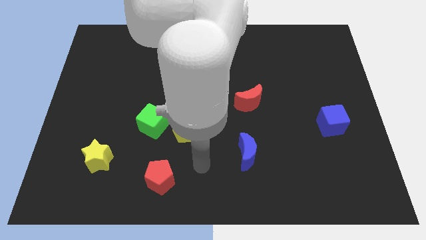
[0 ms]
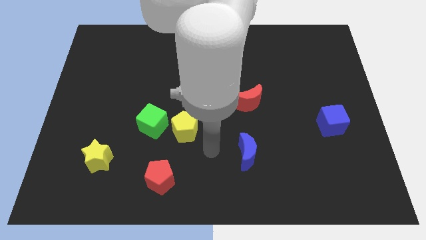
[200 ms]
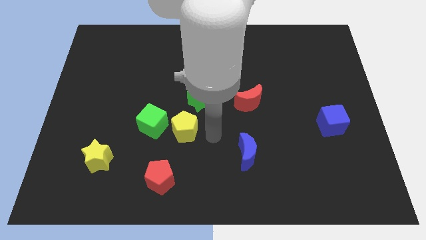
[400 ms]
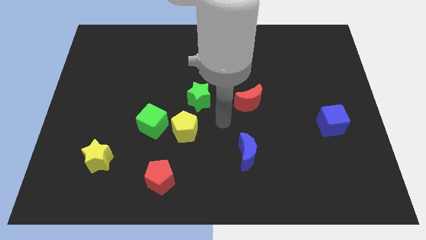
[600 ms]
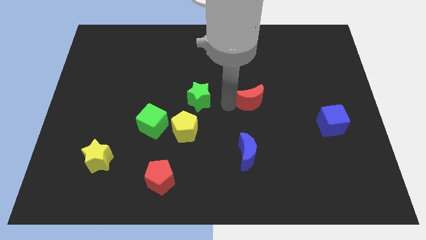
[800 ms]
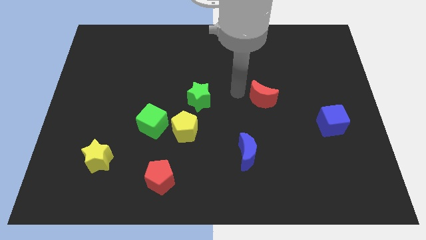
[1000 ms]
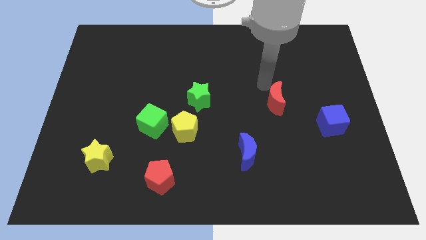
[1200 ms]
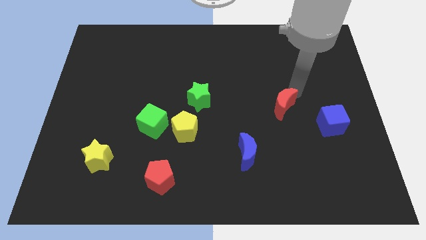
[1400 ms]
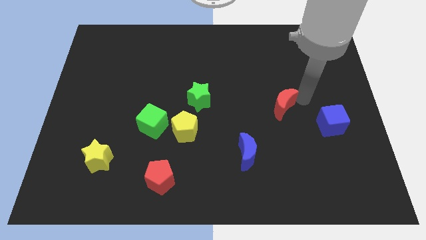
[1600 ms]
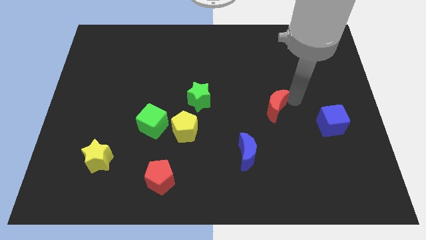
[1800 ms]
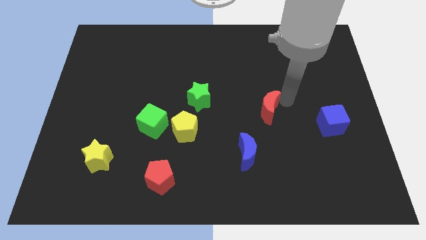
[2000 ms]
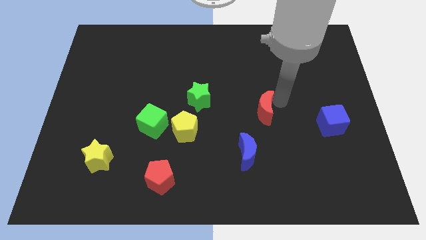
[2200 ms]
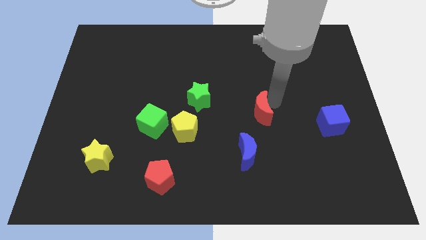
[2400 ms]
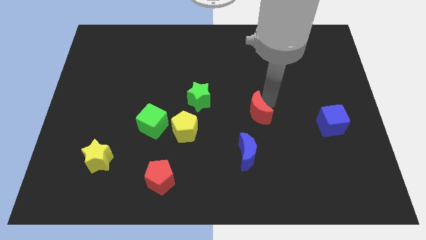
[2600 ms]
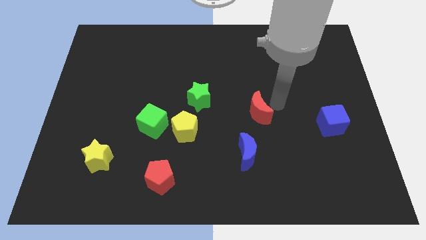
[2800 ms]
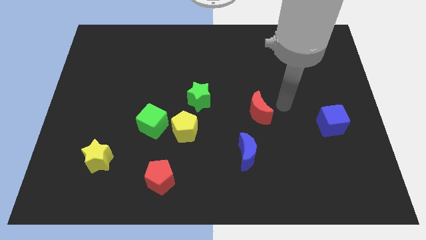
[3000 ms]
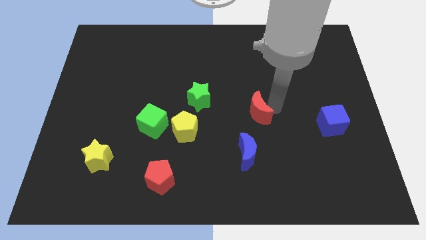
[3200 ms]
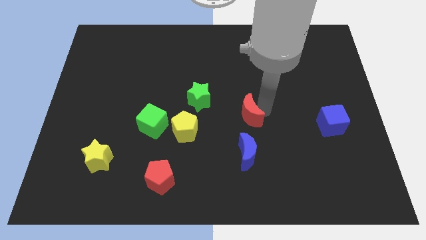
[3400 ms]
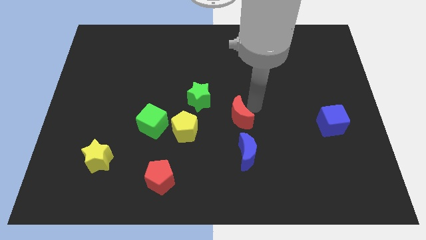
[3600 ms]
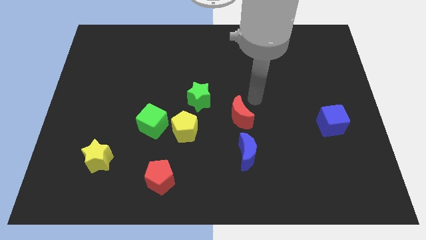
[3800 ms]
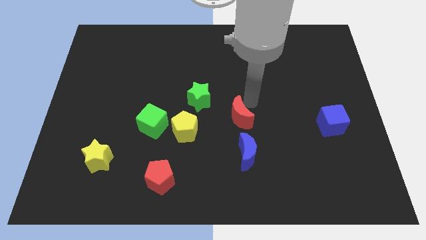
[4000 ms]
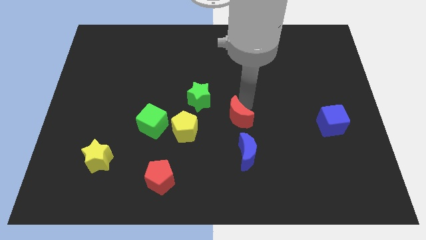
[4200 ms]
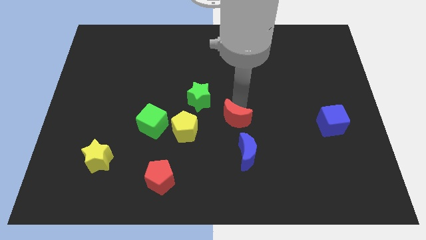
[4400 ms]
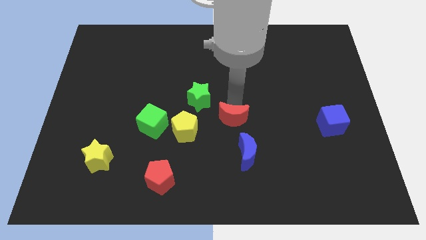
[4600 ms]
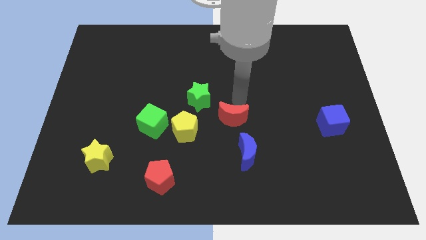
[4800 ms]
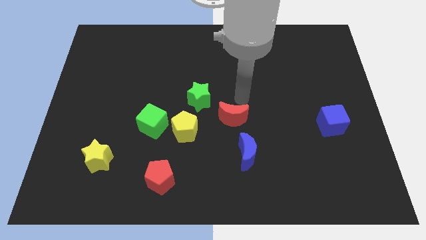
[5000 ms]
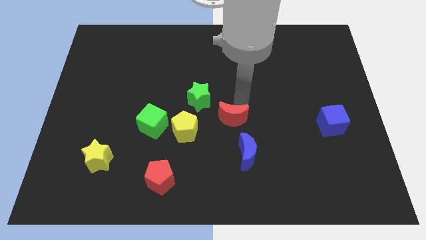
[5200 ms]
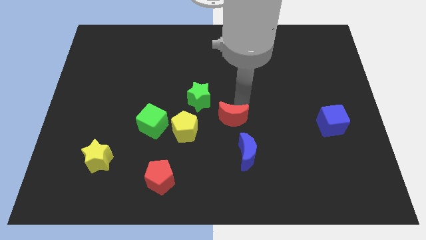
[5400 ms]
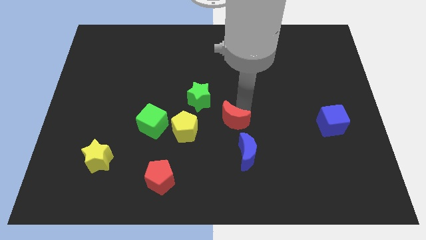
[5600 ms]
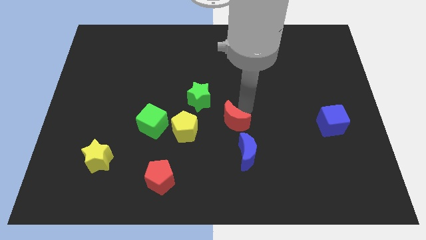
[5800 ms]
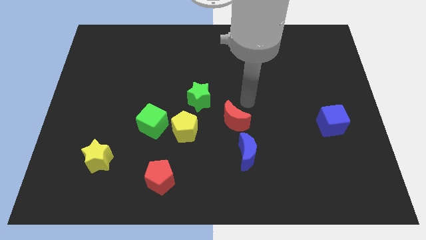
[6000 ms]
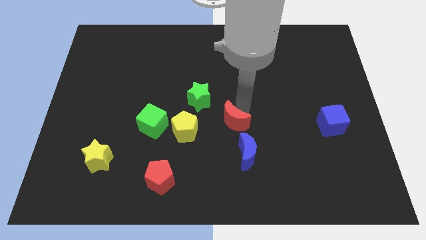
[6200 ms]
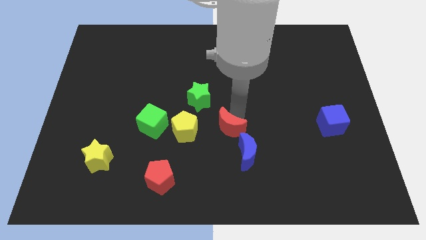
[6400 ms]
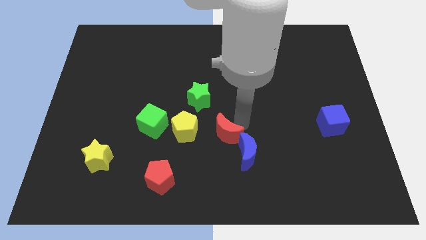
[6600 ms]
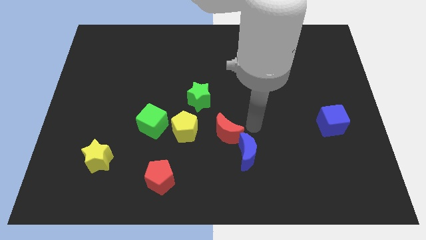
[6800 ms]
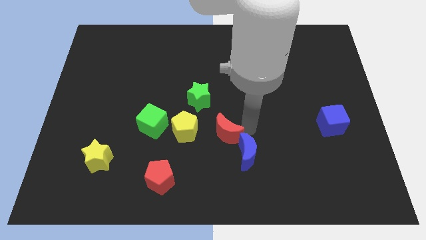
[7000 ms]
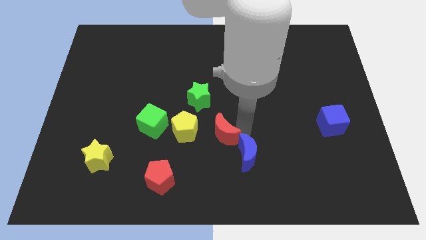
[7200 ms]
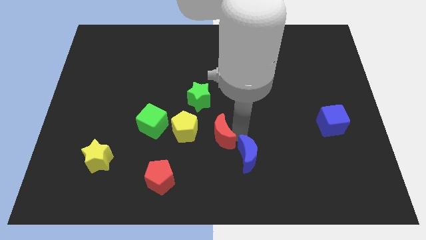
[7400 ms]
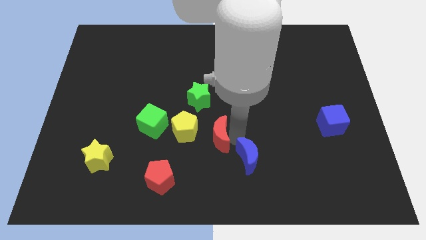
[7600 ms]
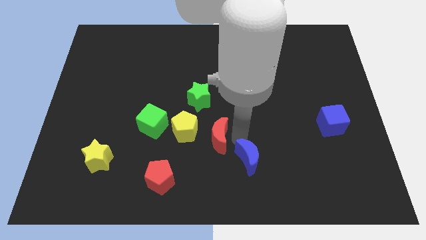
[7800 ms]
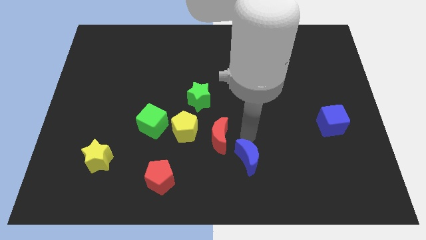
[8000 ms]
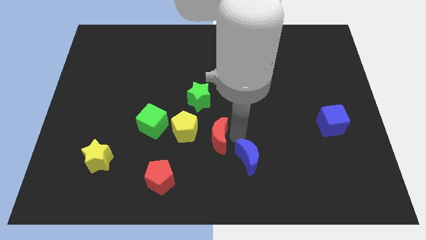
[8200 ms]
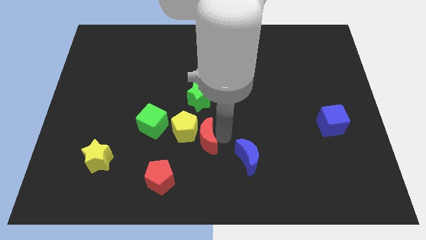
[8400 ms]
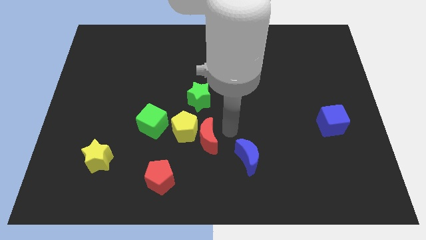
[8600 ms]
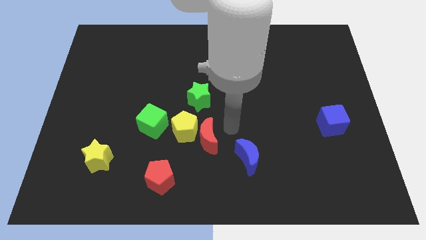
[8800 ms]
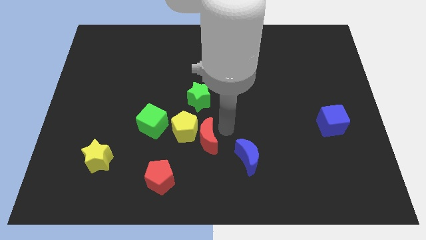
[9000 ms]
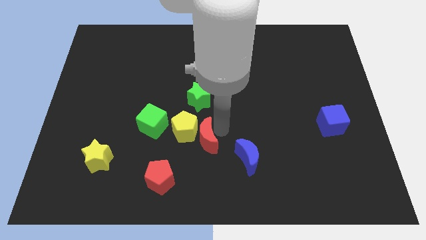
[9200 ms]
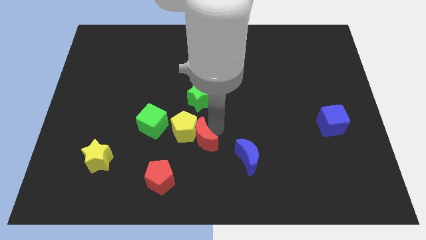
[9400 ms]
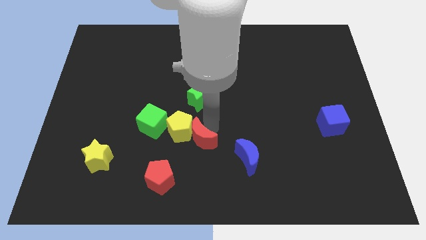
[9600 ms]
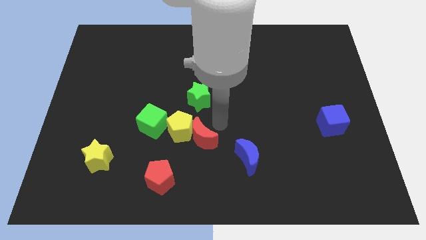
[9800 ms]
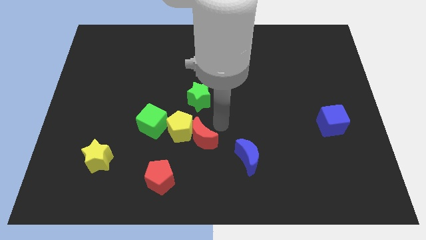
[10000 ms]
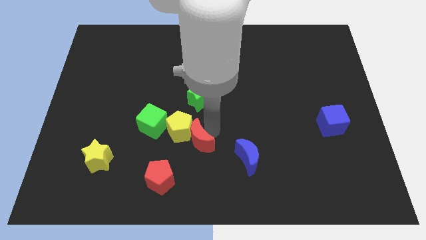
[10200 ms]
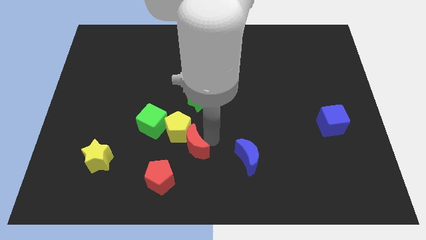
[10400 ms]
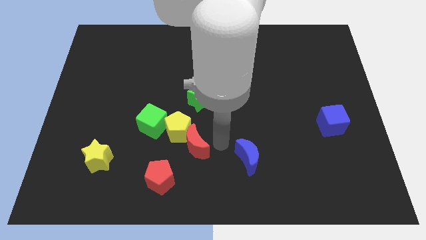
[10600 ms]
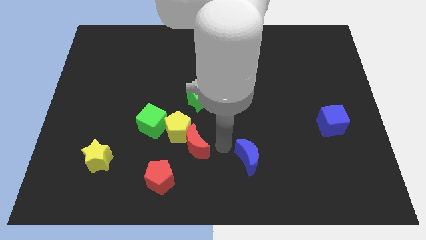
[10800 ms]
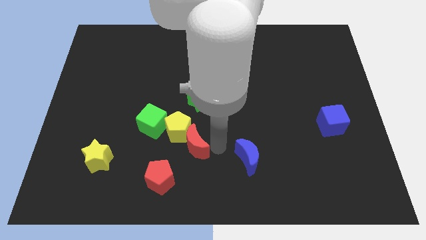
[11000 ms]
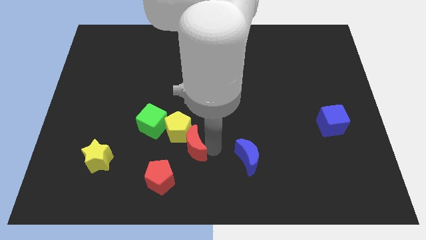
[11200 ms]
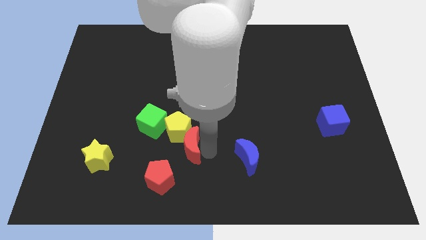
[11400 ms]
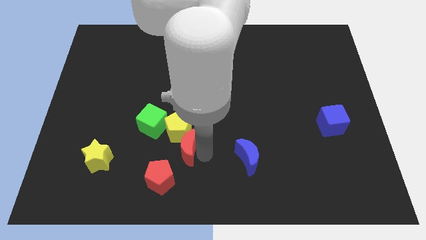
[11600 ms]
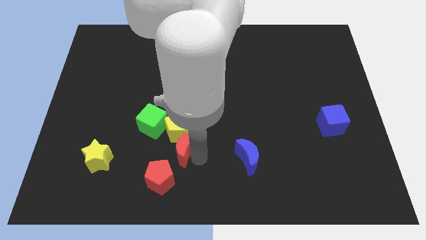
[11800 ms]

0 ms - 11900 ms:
slide the red moon to the top of the red pentagon

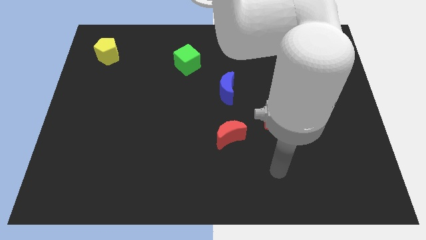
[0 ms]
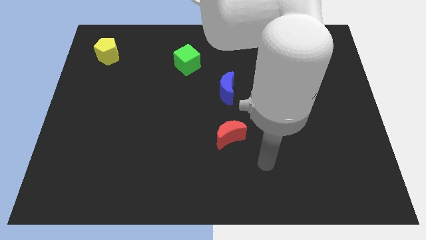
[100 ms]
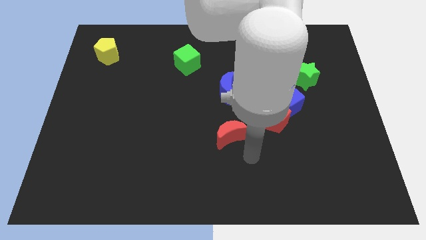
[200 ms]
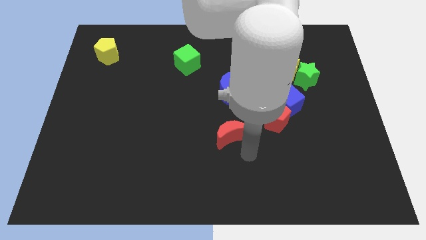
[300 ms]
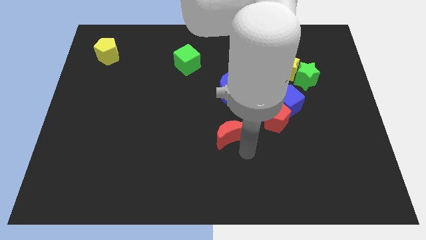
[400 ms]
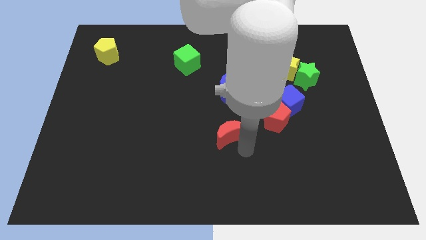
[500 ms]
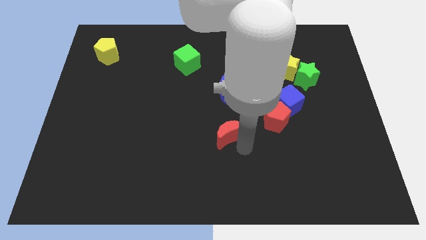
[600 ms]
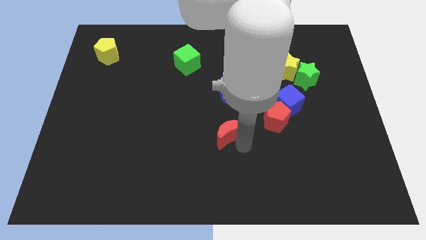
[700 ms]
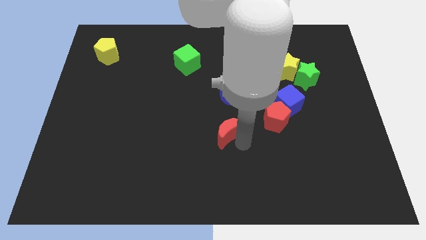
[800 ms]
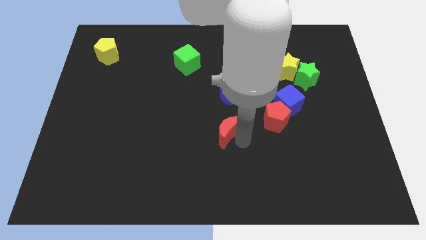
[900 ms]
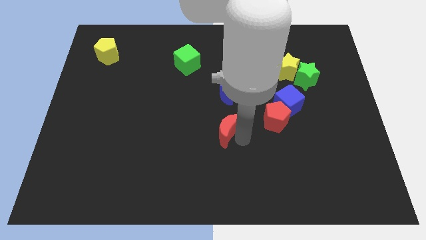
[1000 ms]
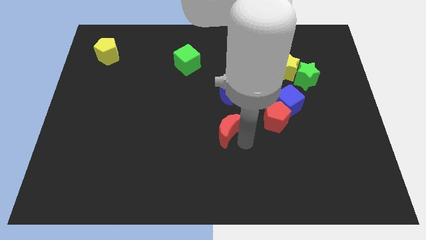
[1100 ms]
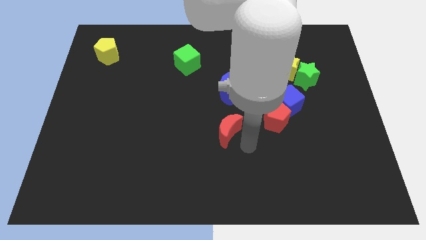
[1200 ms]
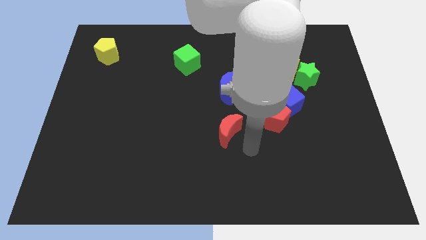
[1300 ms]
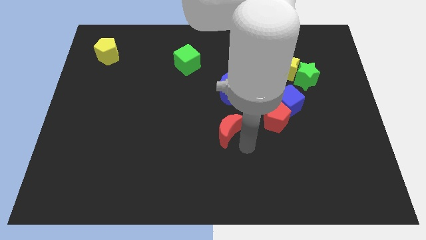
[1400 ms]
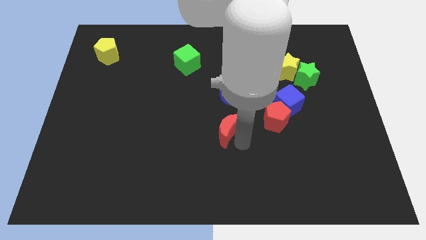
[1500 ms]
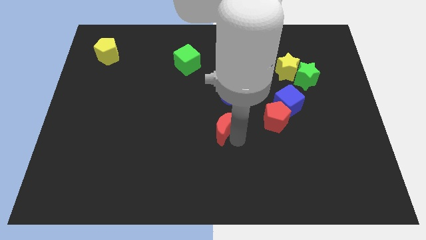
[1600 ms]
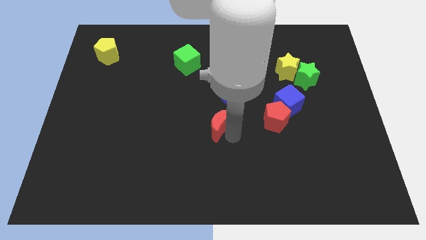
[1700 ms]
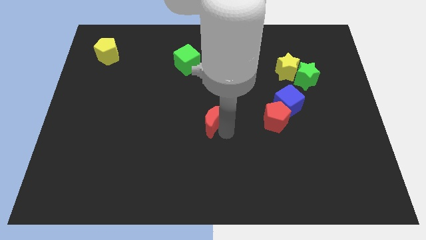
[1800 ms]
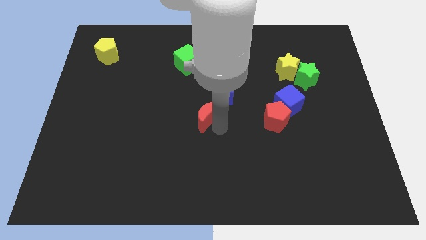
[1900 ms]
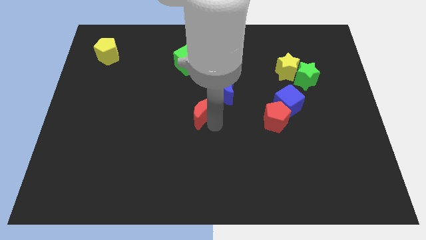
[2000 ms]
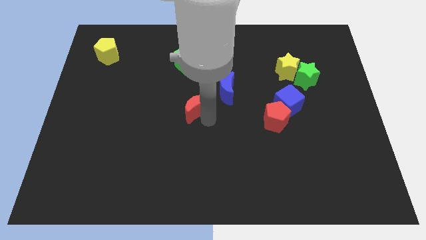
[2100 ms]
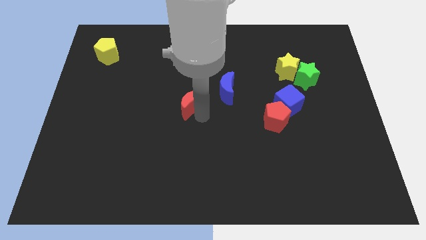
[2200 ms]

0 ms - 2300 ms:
slide the red moon just left of the blue moon
